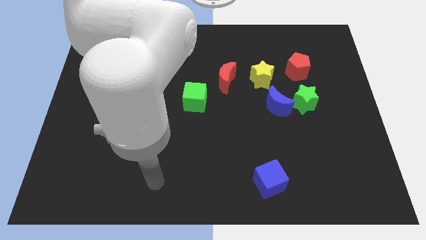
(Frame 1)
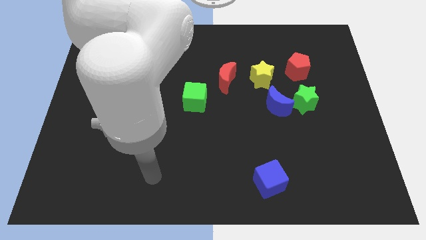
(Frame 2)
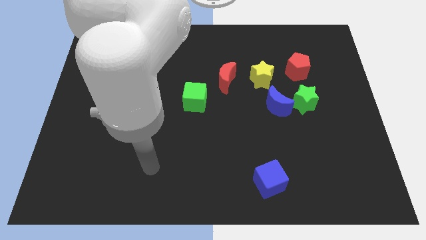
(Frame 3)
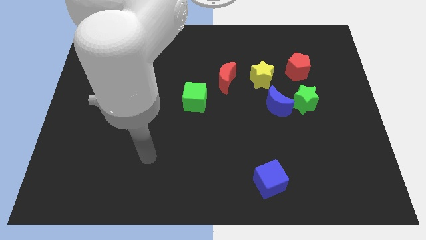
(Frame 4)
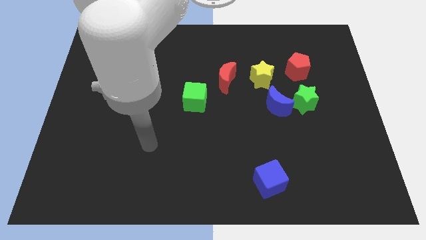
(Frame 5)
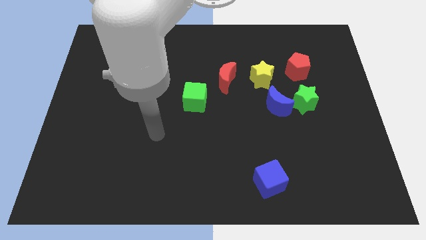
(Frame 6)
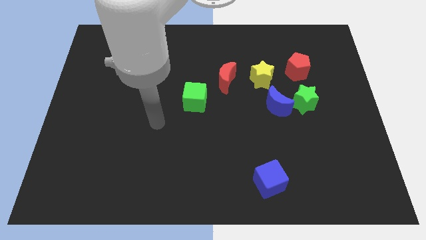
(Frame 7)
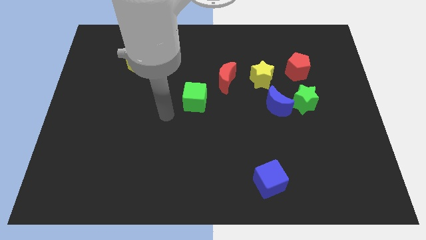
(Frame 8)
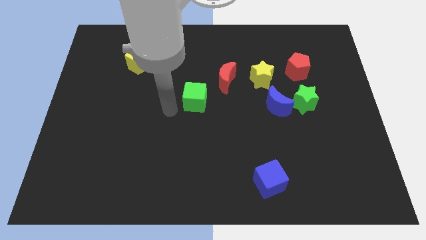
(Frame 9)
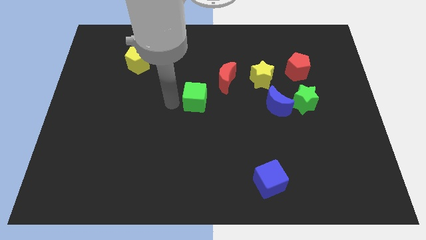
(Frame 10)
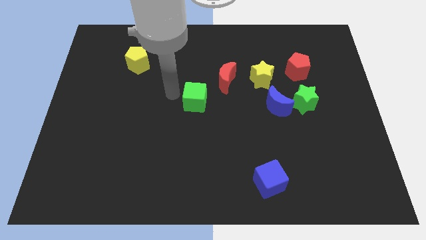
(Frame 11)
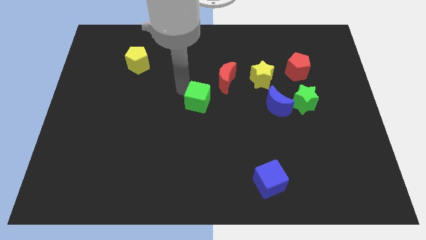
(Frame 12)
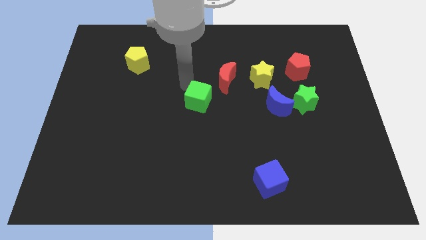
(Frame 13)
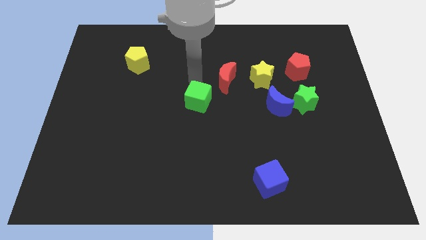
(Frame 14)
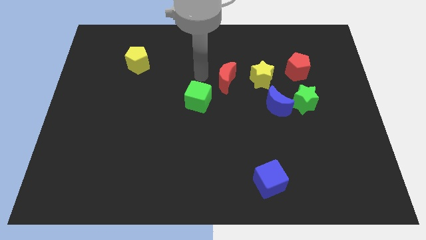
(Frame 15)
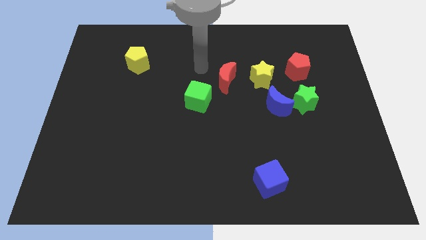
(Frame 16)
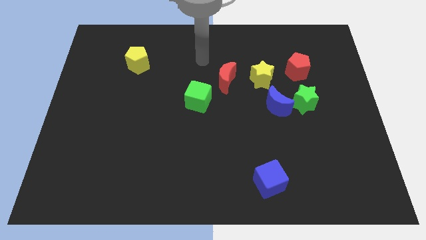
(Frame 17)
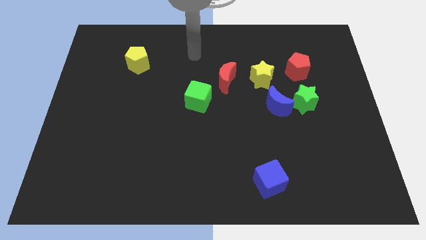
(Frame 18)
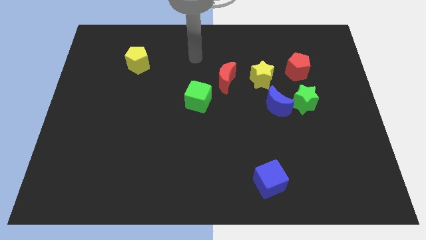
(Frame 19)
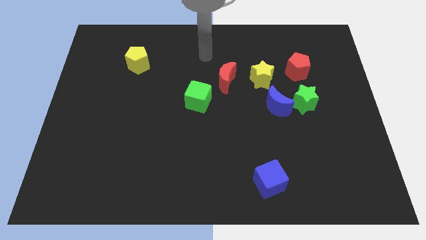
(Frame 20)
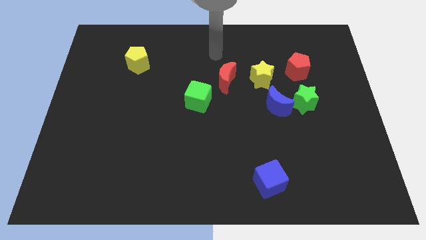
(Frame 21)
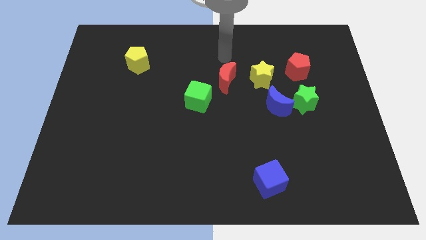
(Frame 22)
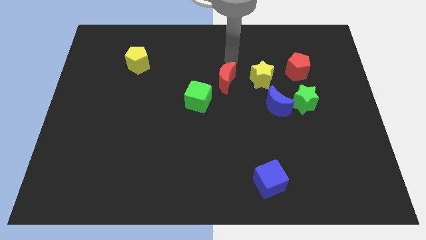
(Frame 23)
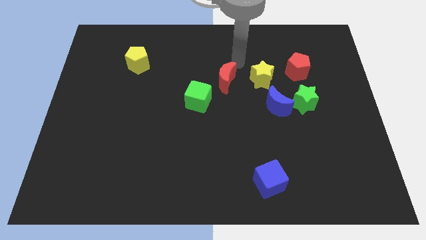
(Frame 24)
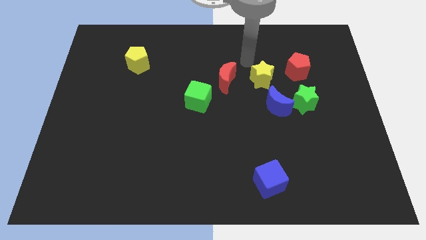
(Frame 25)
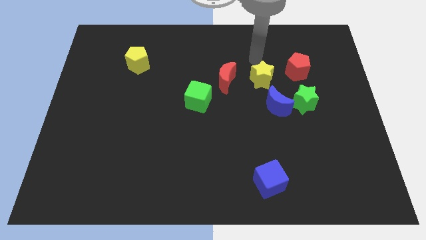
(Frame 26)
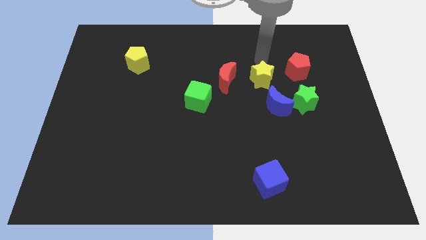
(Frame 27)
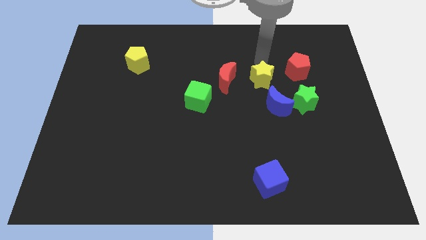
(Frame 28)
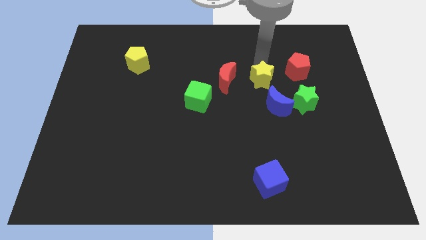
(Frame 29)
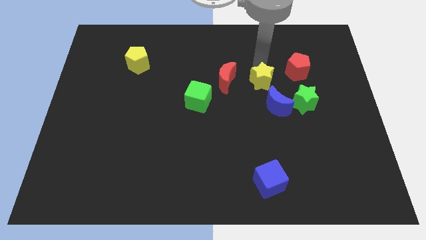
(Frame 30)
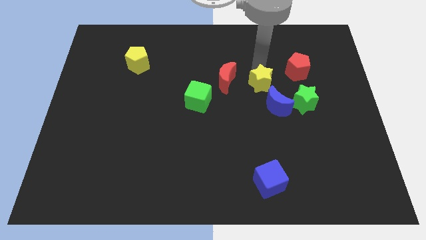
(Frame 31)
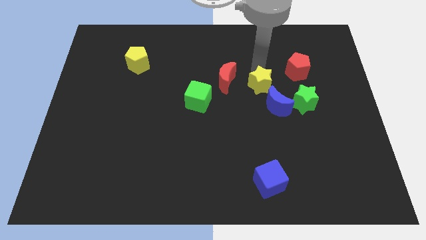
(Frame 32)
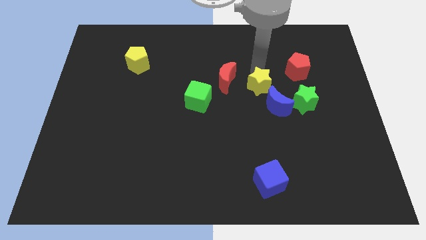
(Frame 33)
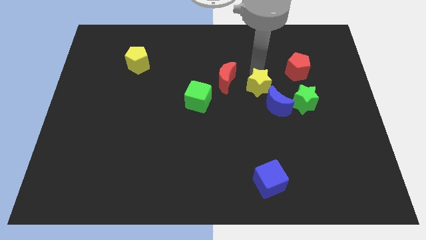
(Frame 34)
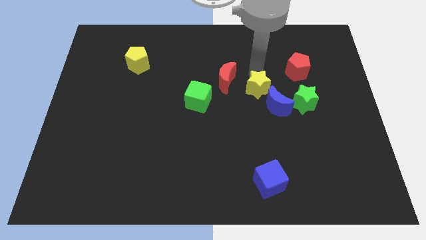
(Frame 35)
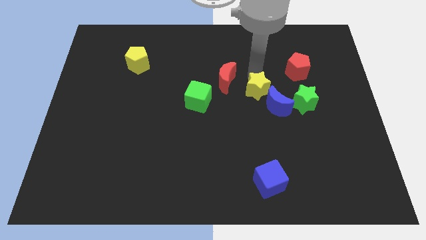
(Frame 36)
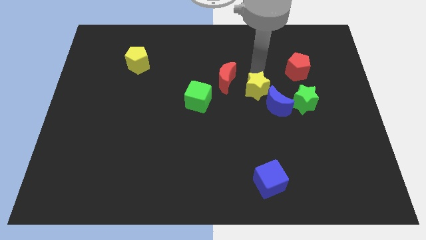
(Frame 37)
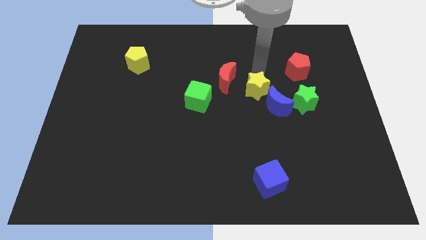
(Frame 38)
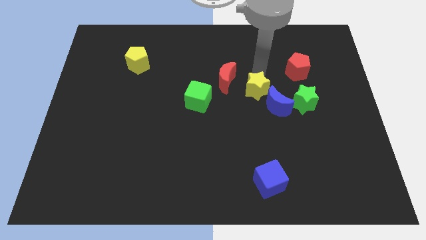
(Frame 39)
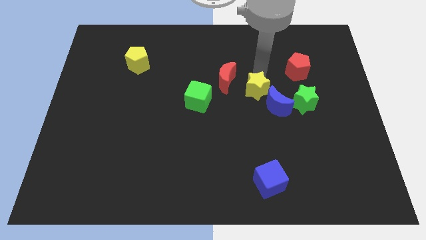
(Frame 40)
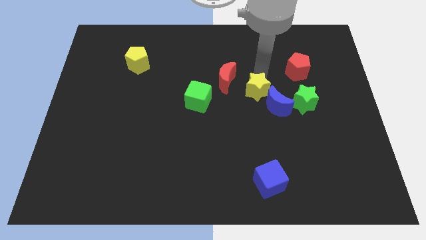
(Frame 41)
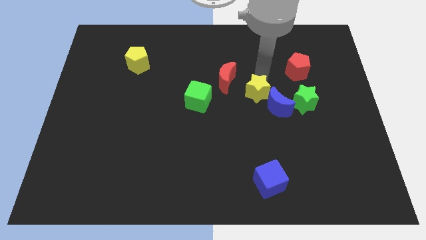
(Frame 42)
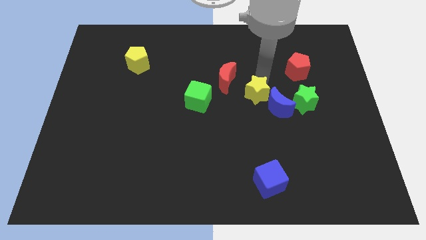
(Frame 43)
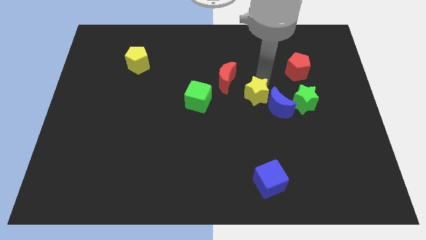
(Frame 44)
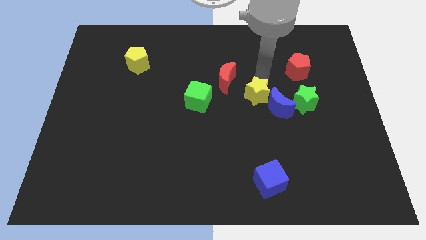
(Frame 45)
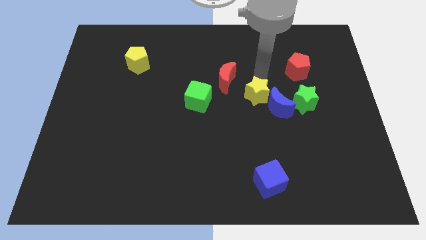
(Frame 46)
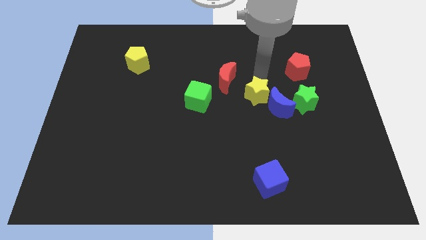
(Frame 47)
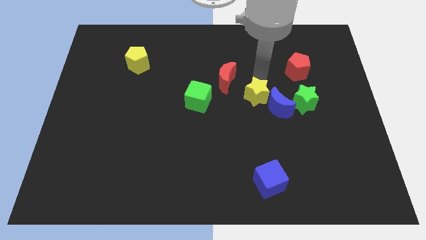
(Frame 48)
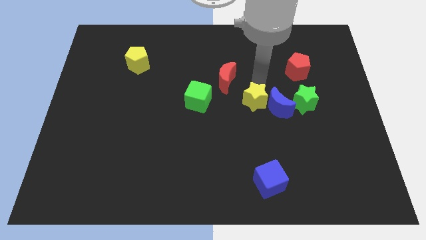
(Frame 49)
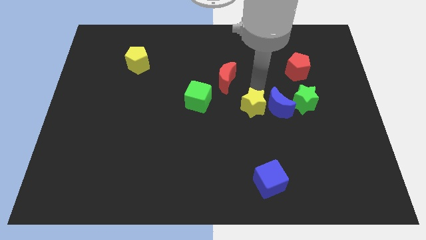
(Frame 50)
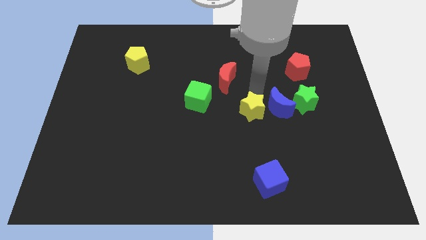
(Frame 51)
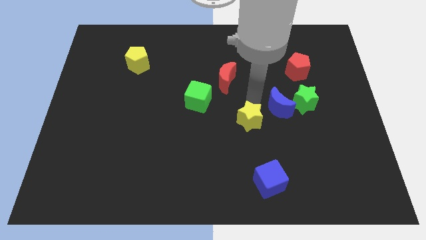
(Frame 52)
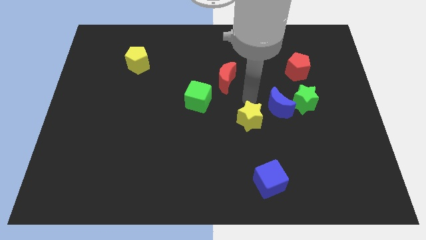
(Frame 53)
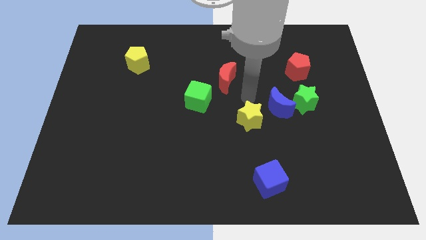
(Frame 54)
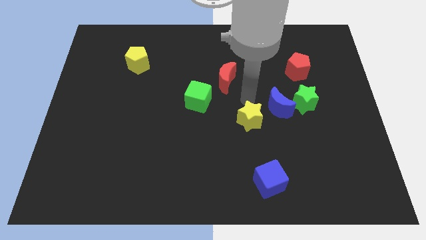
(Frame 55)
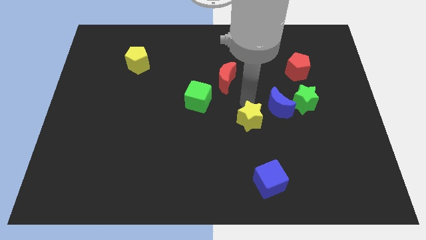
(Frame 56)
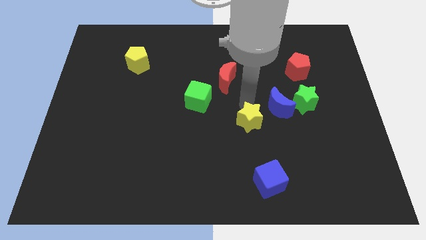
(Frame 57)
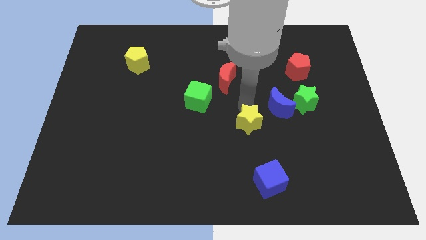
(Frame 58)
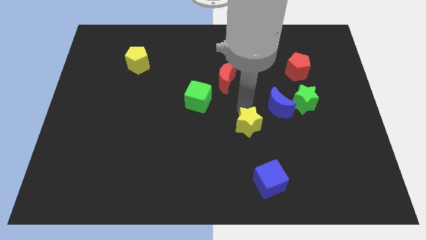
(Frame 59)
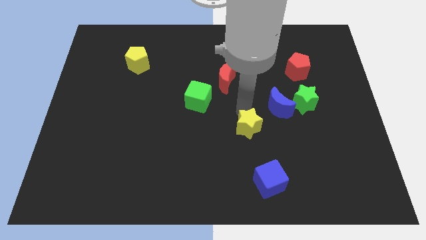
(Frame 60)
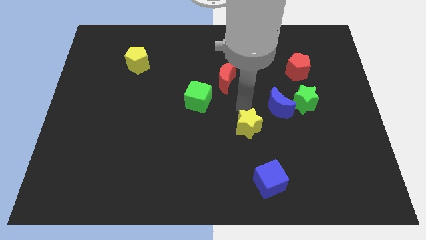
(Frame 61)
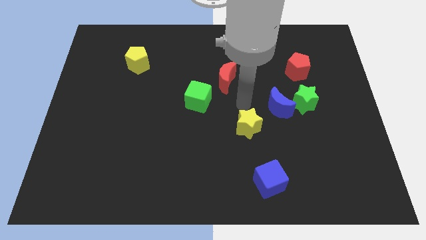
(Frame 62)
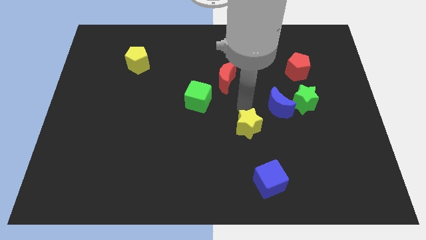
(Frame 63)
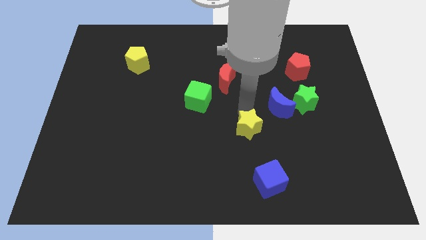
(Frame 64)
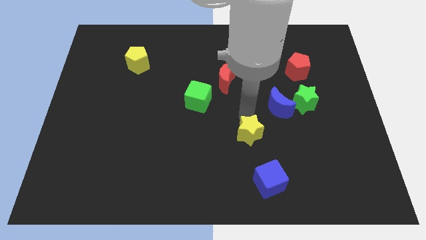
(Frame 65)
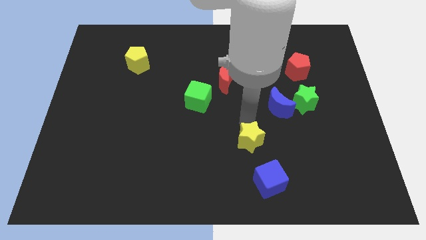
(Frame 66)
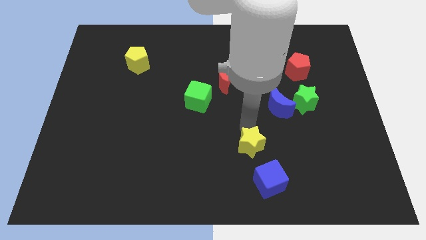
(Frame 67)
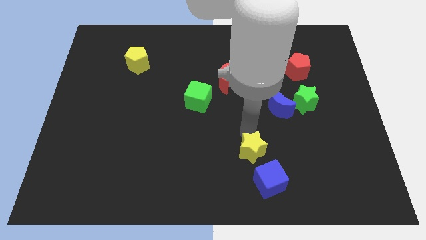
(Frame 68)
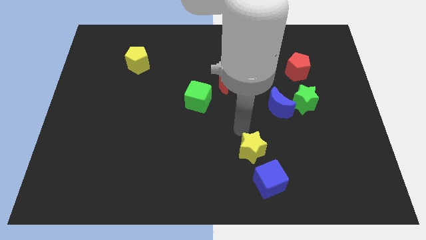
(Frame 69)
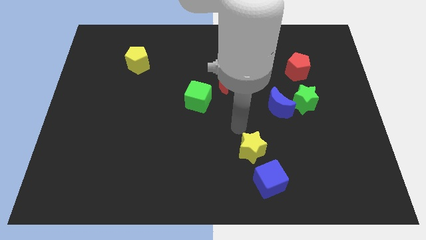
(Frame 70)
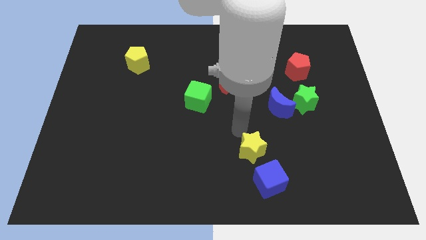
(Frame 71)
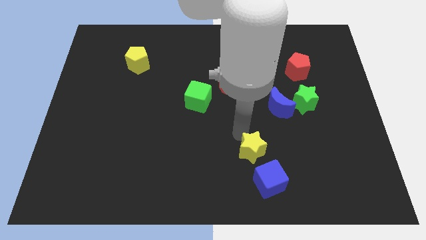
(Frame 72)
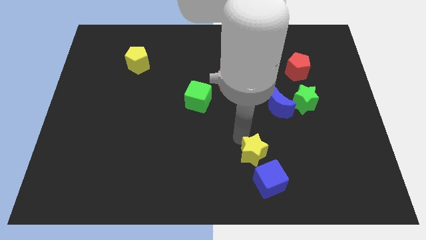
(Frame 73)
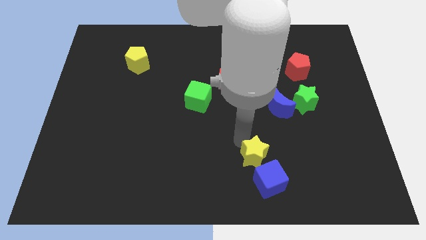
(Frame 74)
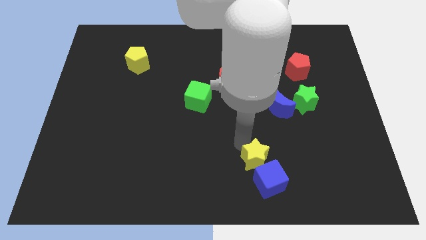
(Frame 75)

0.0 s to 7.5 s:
put the yellow star towards the blue cube
